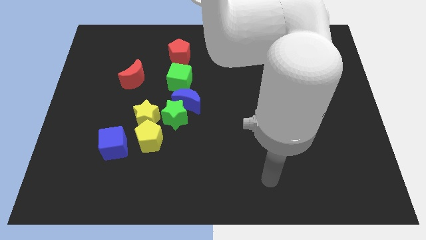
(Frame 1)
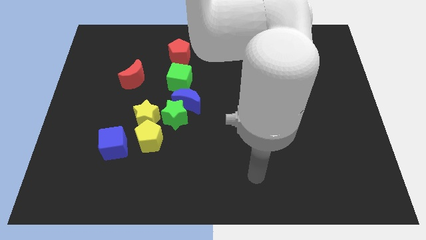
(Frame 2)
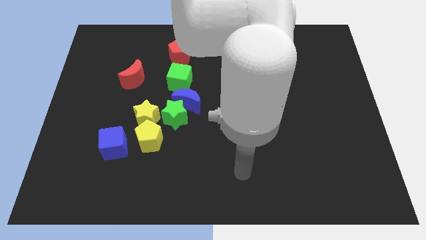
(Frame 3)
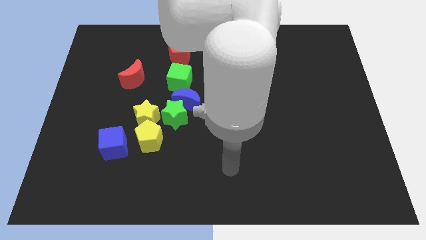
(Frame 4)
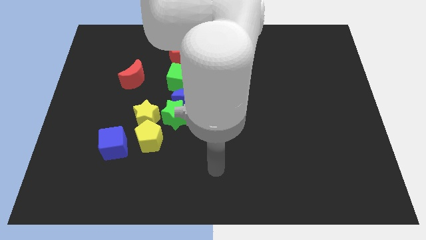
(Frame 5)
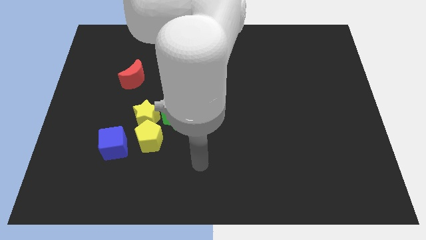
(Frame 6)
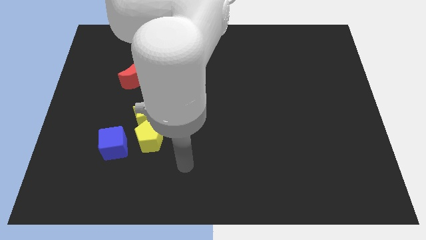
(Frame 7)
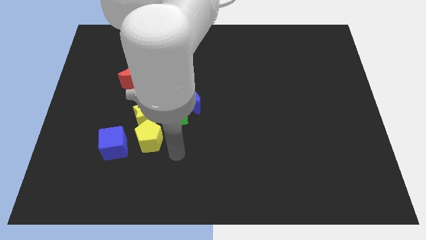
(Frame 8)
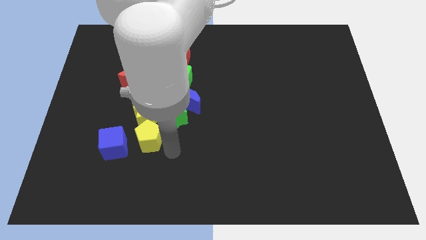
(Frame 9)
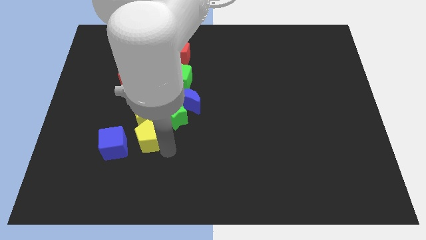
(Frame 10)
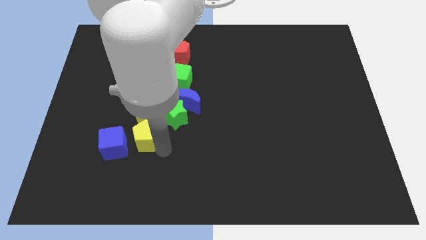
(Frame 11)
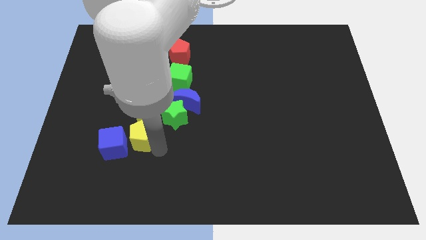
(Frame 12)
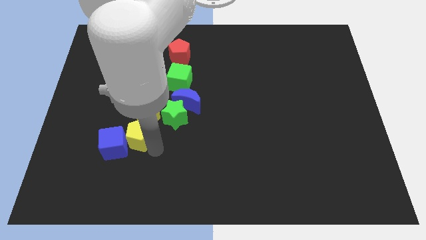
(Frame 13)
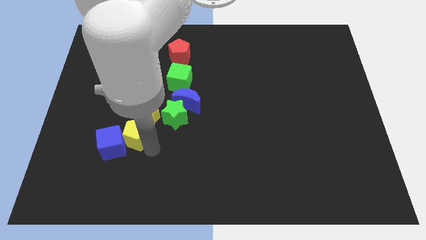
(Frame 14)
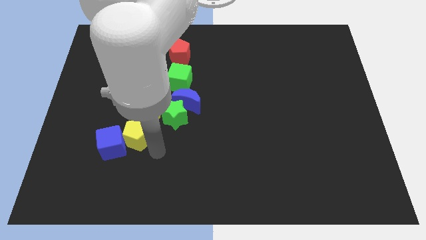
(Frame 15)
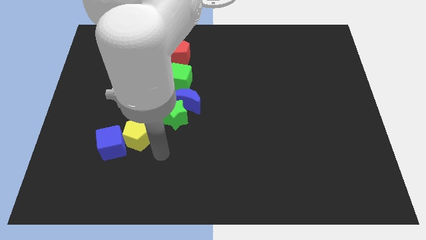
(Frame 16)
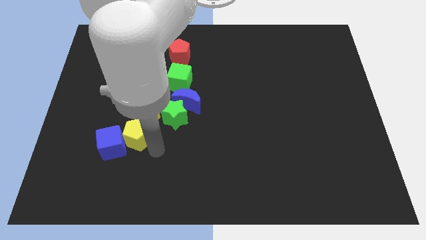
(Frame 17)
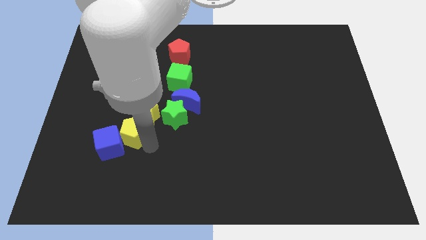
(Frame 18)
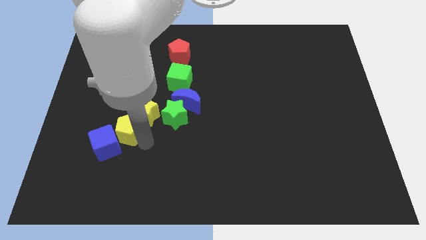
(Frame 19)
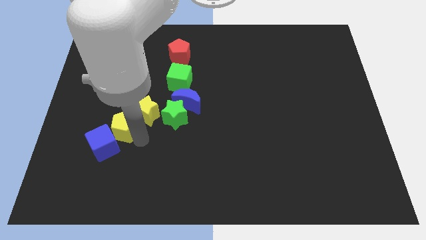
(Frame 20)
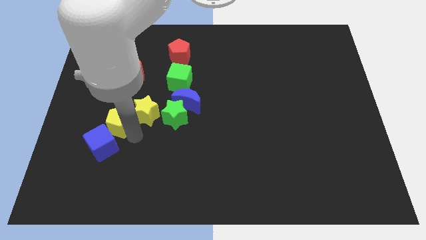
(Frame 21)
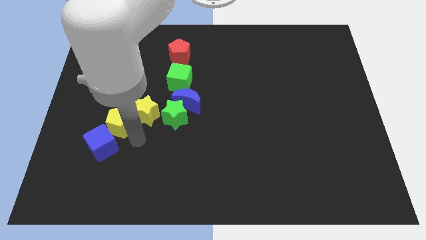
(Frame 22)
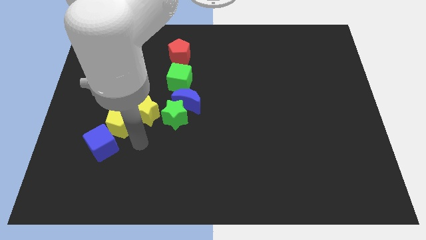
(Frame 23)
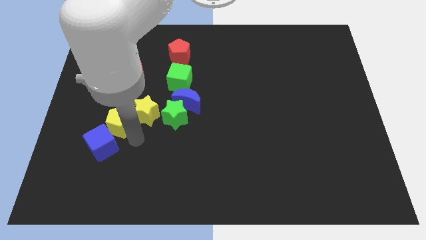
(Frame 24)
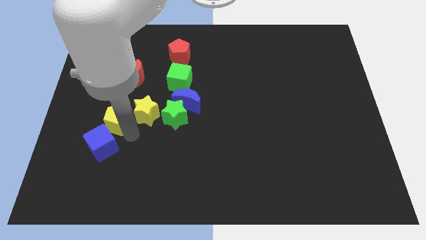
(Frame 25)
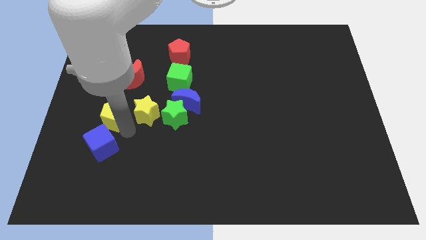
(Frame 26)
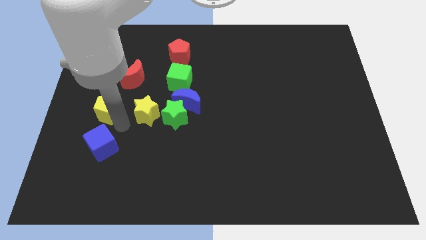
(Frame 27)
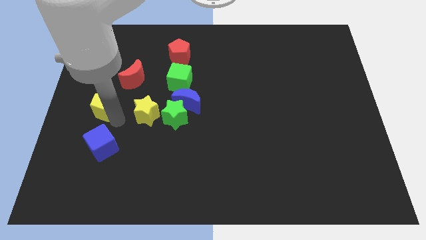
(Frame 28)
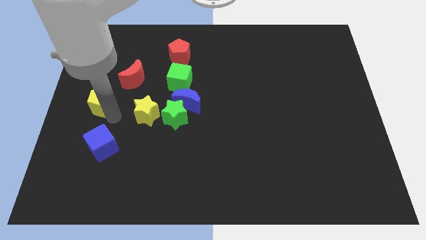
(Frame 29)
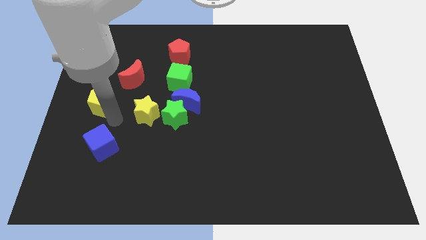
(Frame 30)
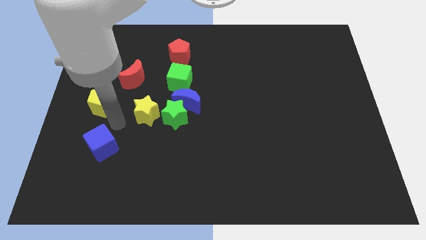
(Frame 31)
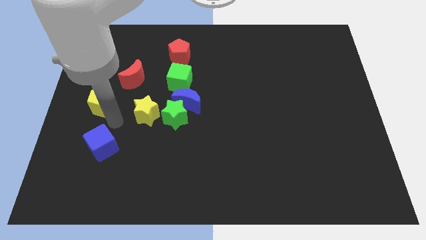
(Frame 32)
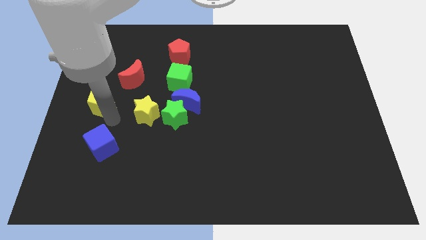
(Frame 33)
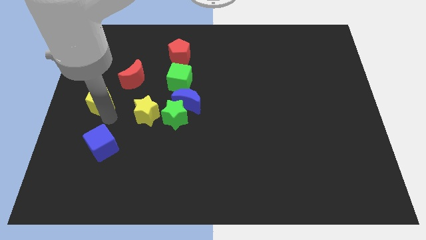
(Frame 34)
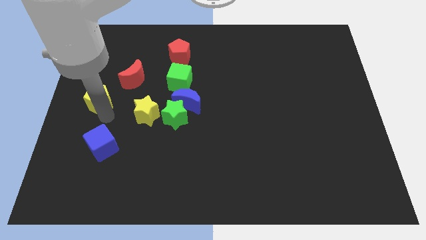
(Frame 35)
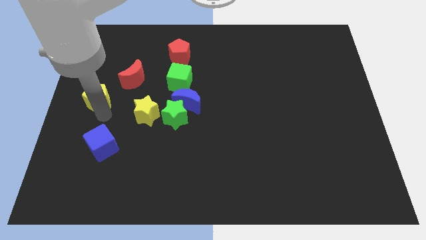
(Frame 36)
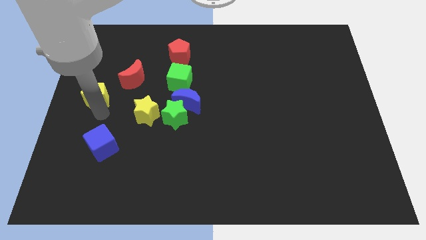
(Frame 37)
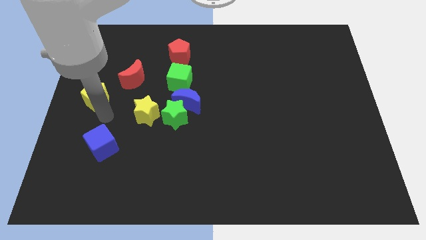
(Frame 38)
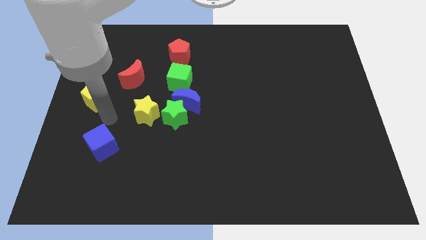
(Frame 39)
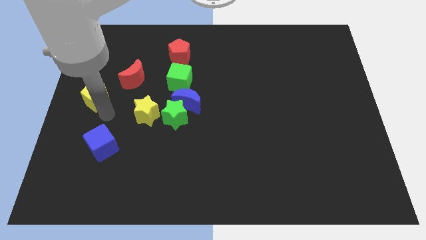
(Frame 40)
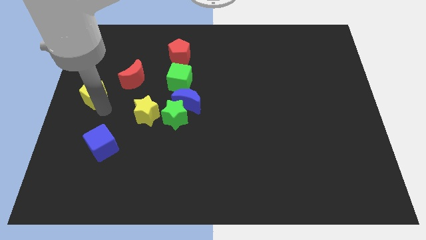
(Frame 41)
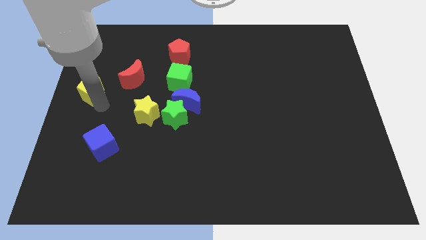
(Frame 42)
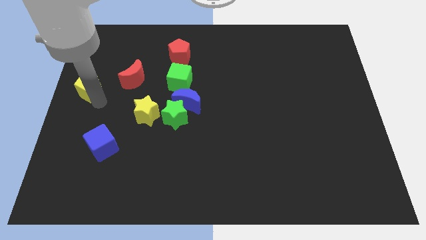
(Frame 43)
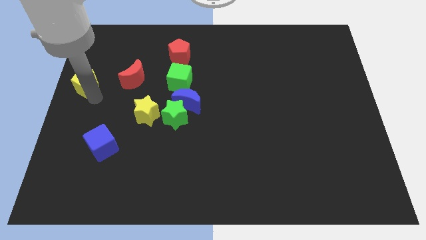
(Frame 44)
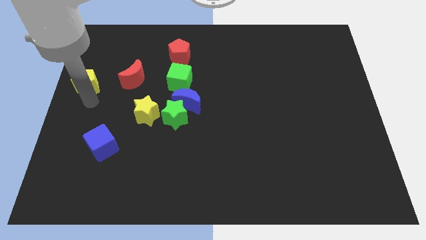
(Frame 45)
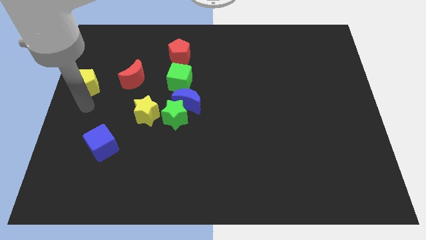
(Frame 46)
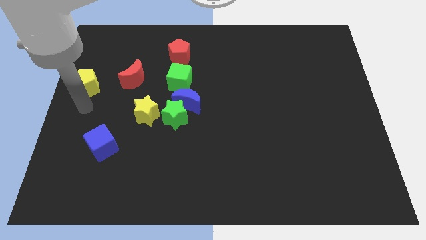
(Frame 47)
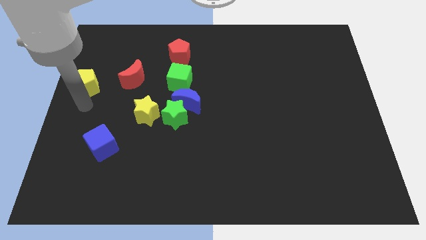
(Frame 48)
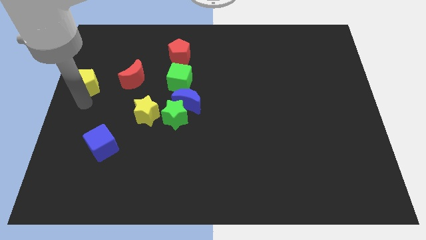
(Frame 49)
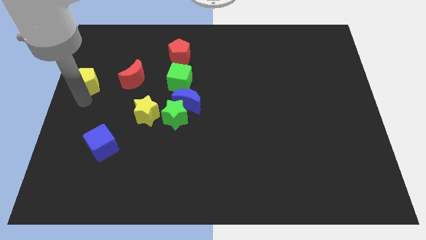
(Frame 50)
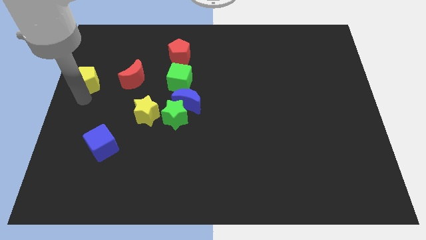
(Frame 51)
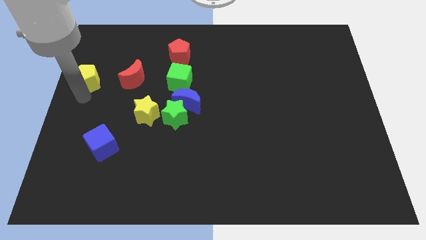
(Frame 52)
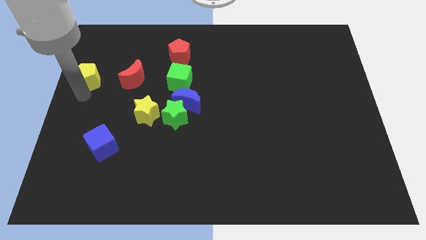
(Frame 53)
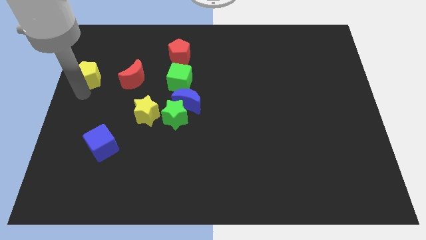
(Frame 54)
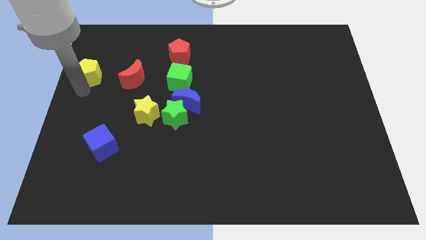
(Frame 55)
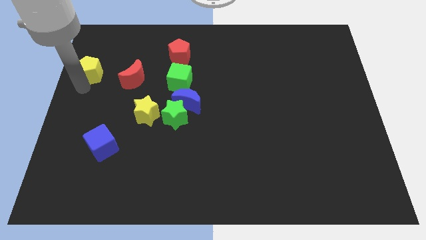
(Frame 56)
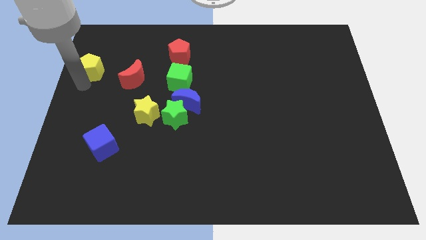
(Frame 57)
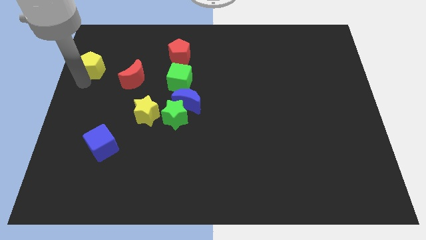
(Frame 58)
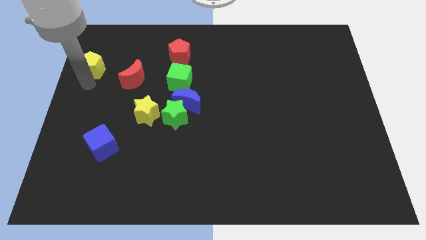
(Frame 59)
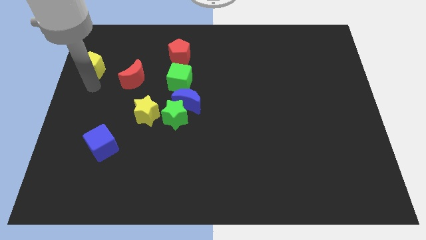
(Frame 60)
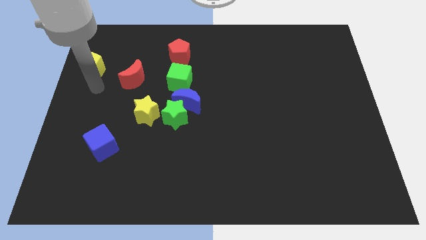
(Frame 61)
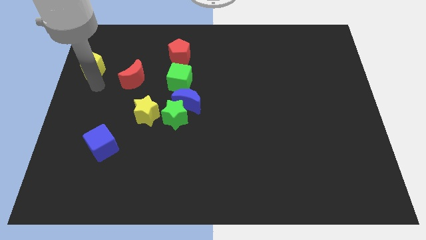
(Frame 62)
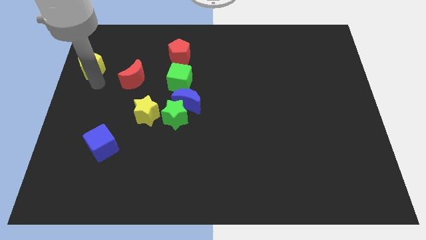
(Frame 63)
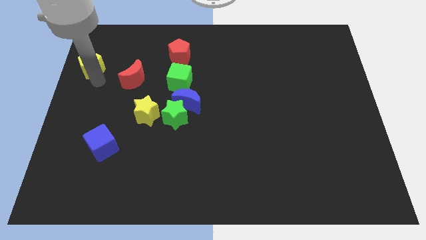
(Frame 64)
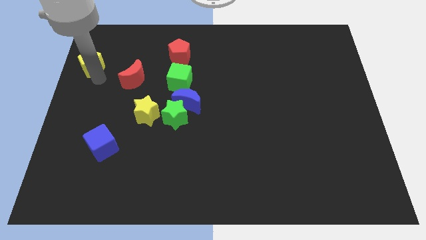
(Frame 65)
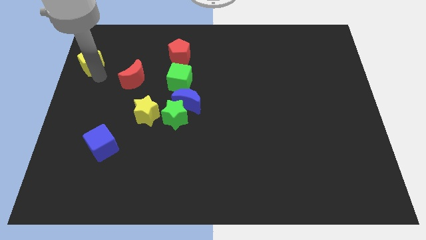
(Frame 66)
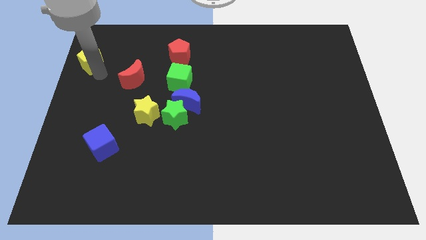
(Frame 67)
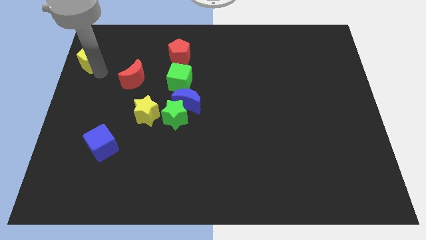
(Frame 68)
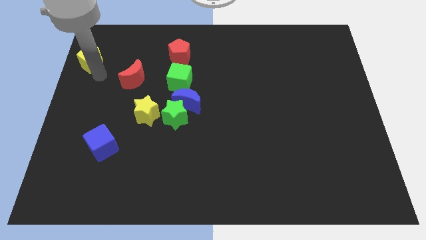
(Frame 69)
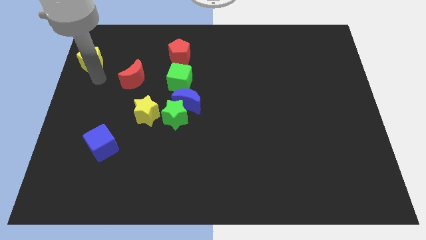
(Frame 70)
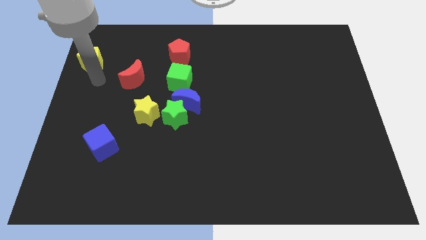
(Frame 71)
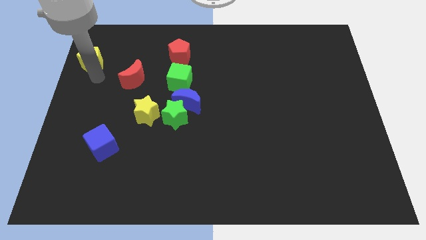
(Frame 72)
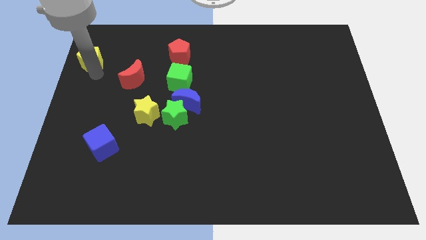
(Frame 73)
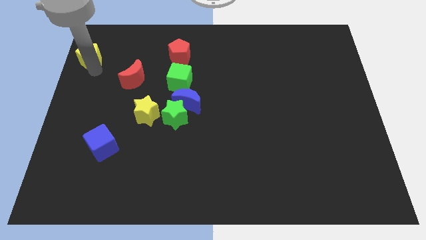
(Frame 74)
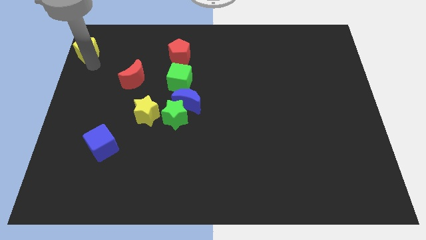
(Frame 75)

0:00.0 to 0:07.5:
slide the yellow pentagon to the upper left corner
